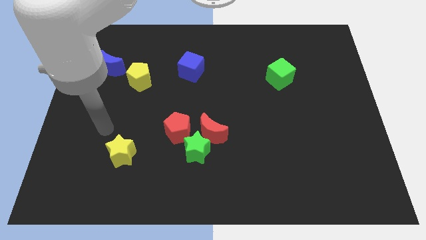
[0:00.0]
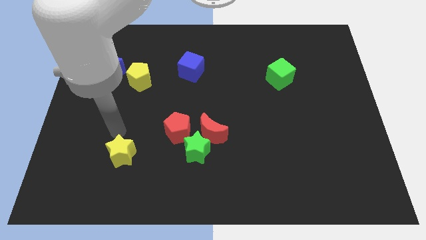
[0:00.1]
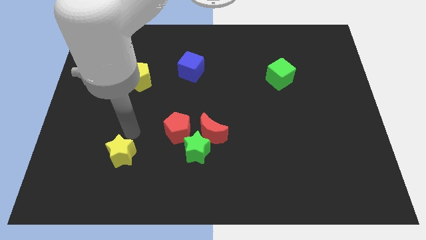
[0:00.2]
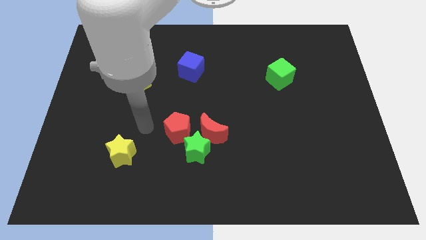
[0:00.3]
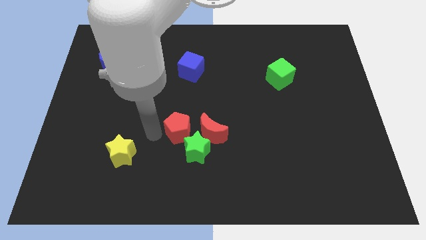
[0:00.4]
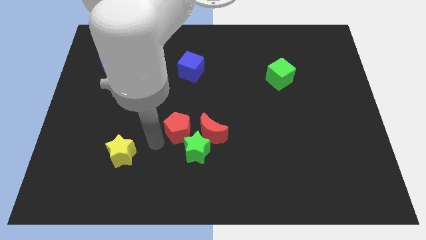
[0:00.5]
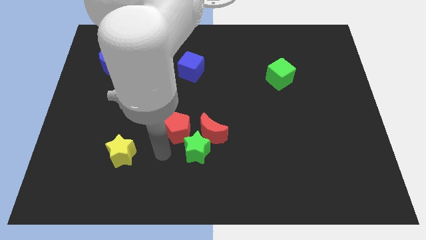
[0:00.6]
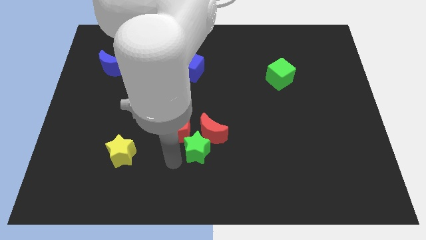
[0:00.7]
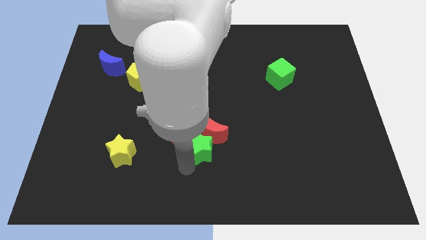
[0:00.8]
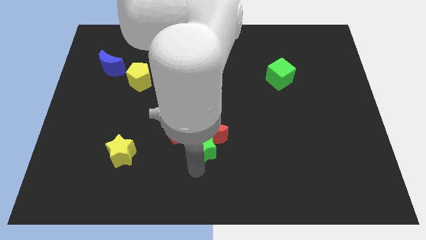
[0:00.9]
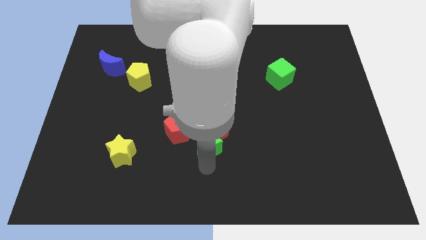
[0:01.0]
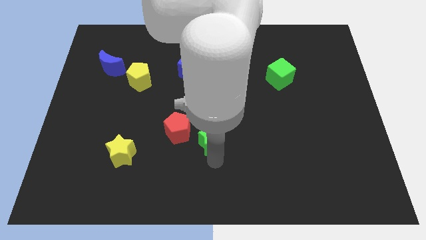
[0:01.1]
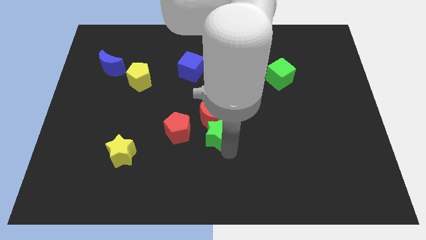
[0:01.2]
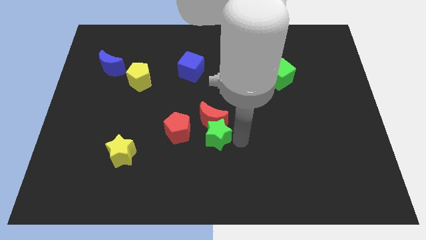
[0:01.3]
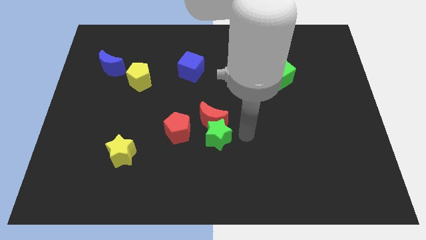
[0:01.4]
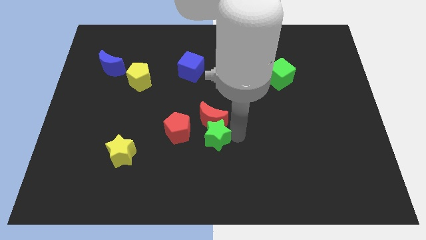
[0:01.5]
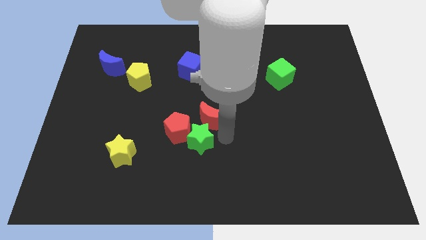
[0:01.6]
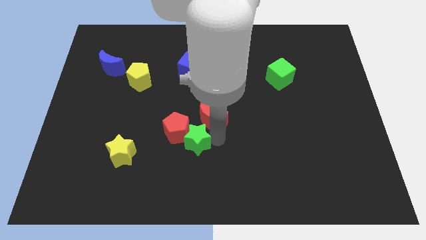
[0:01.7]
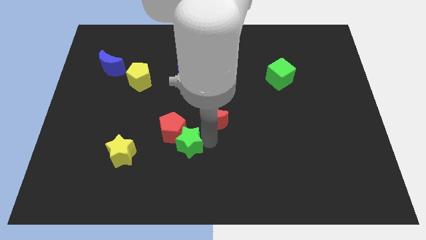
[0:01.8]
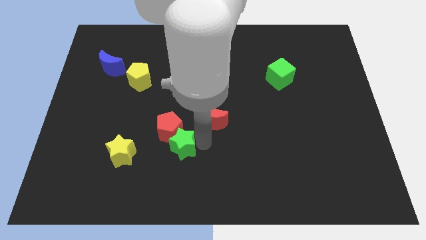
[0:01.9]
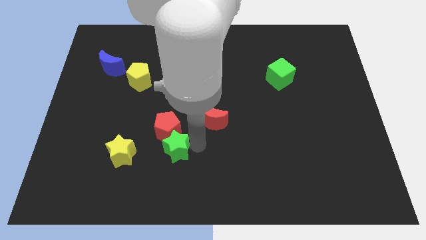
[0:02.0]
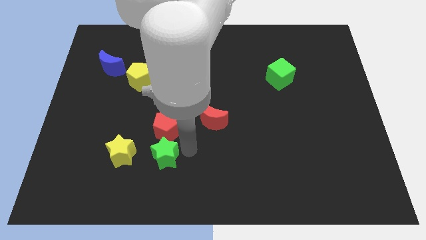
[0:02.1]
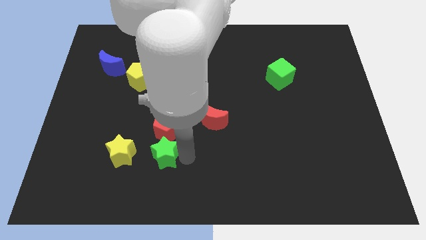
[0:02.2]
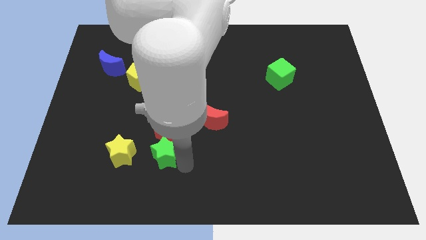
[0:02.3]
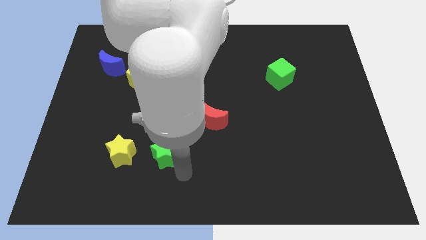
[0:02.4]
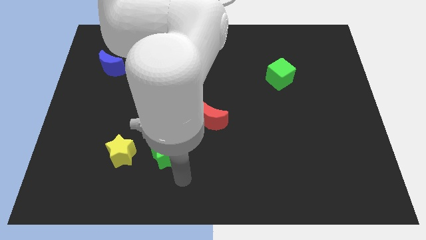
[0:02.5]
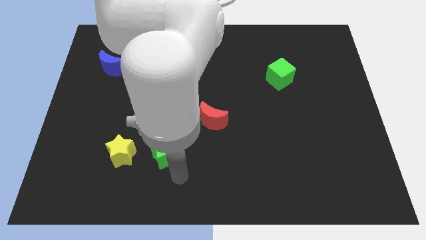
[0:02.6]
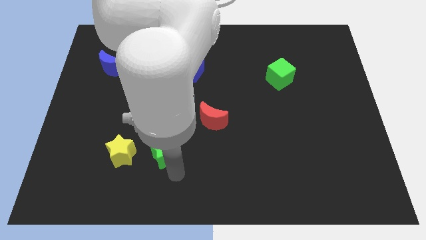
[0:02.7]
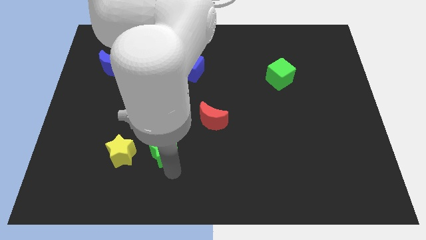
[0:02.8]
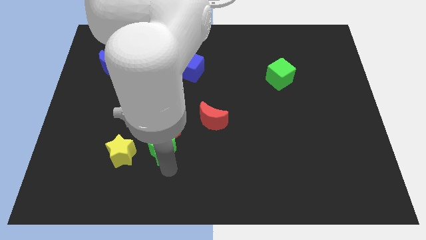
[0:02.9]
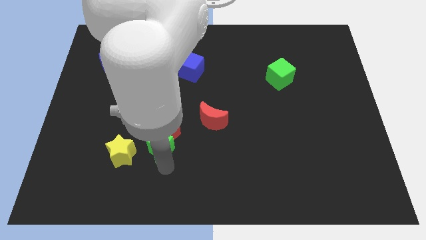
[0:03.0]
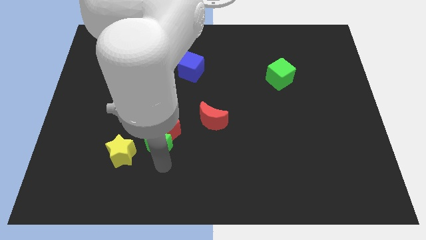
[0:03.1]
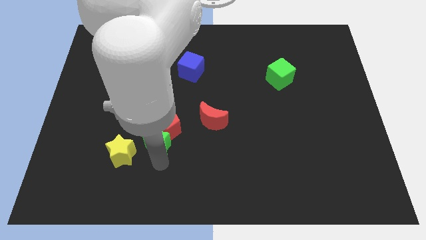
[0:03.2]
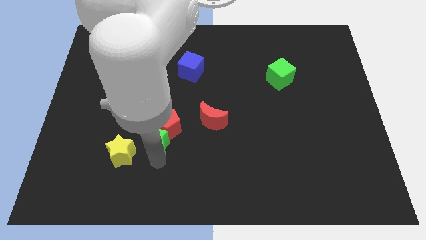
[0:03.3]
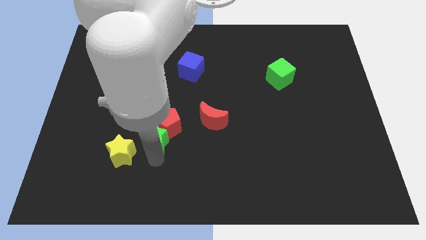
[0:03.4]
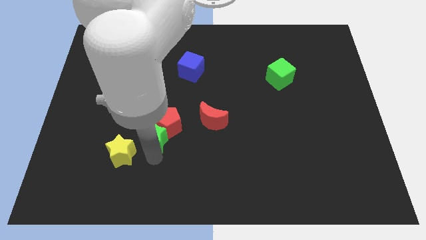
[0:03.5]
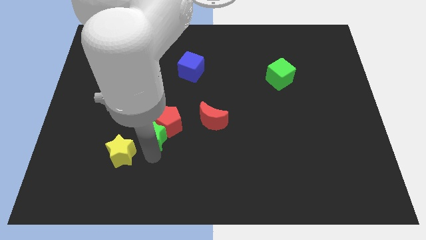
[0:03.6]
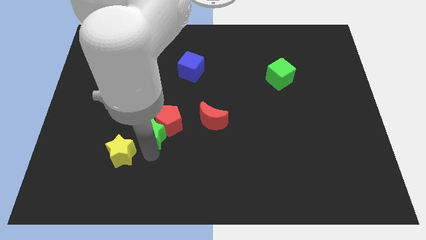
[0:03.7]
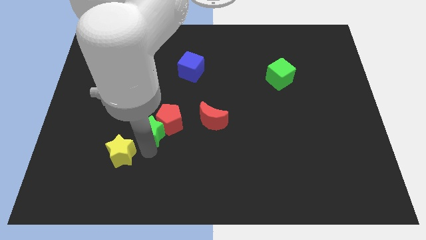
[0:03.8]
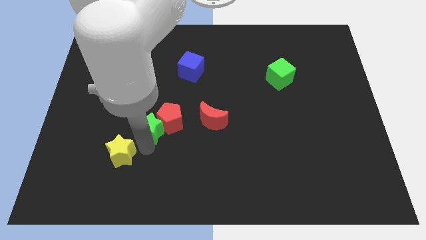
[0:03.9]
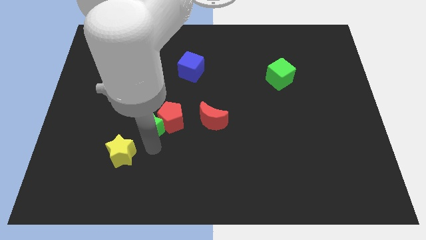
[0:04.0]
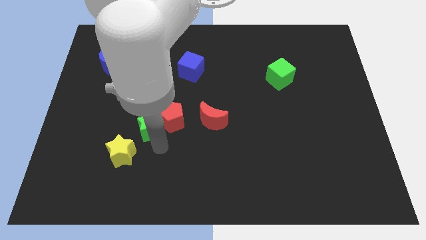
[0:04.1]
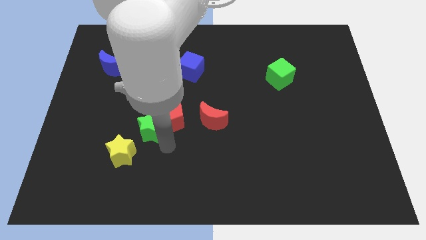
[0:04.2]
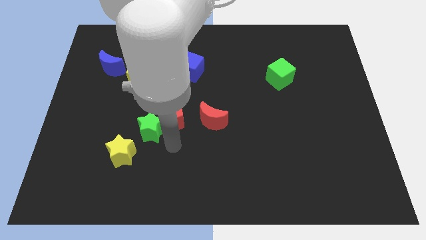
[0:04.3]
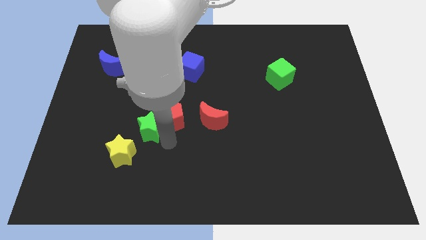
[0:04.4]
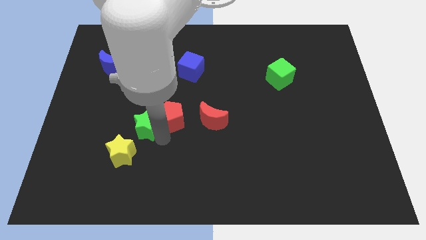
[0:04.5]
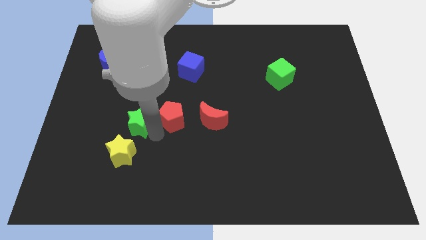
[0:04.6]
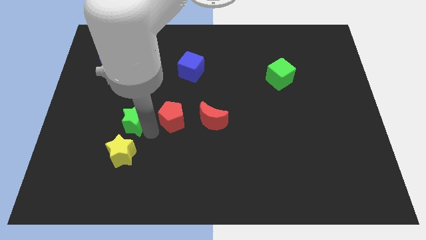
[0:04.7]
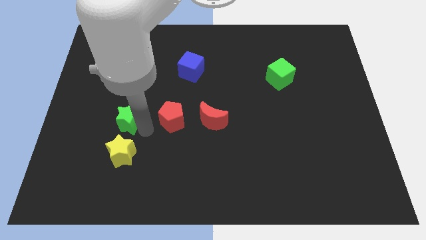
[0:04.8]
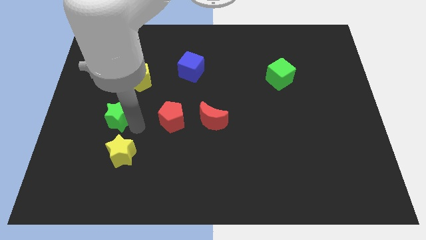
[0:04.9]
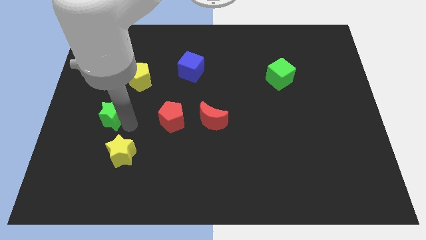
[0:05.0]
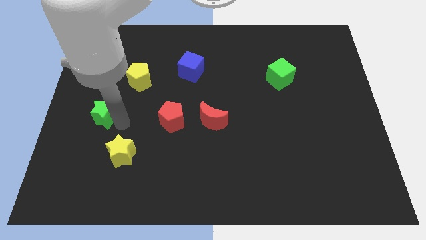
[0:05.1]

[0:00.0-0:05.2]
move the green star to the bottom of the blue moon

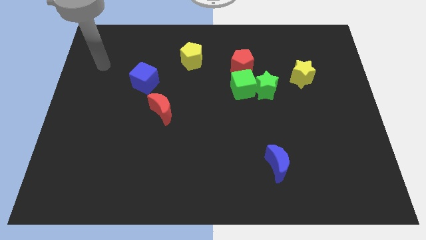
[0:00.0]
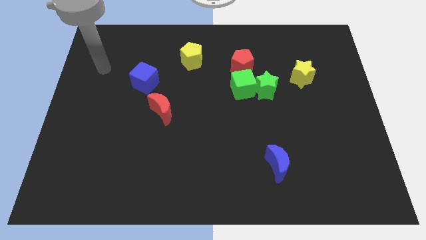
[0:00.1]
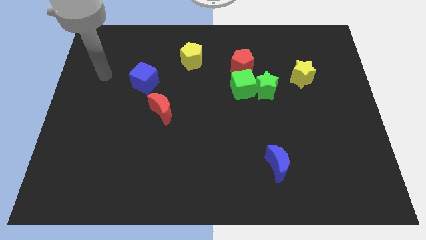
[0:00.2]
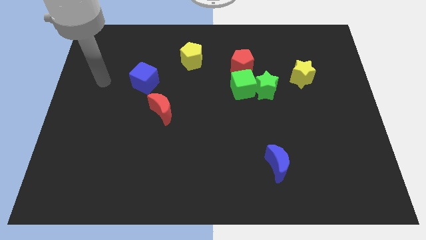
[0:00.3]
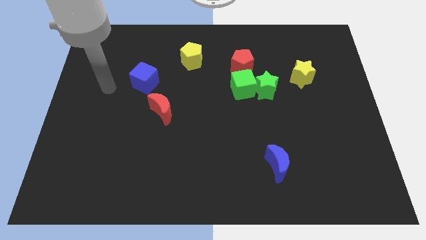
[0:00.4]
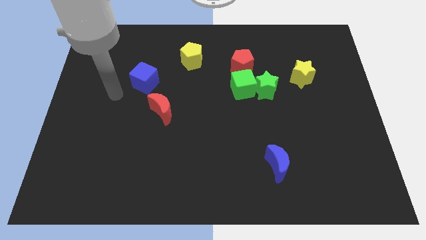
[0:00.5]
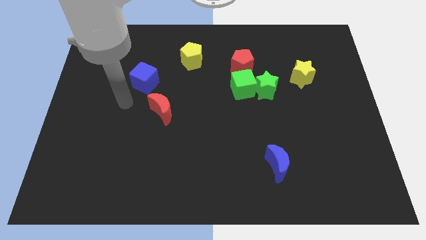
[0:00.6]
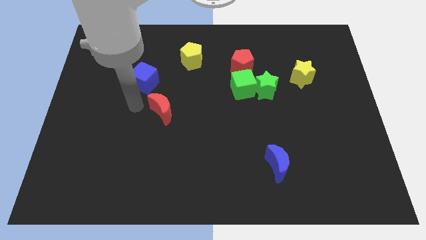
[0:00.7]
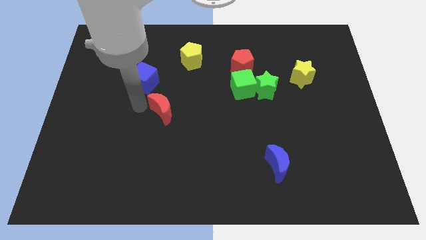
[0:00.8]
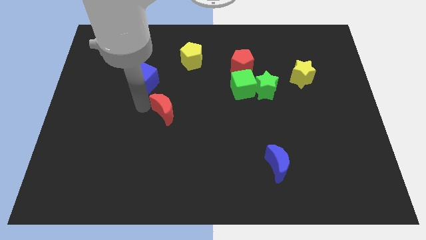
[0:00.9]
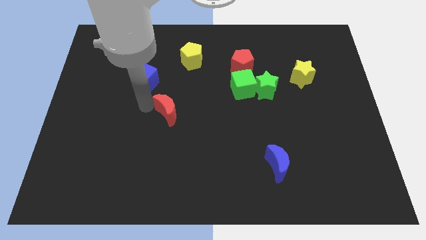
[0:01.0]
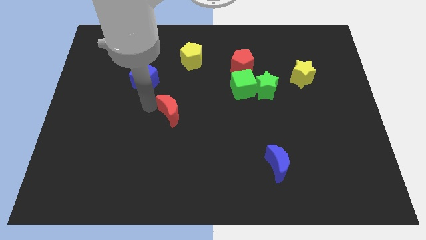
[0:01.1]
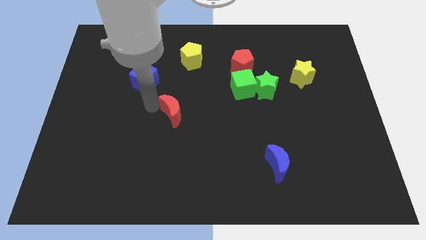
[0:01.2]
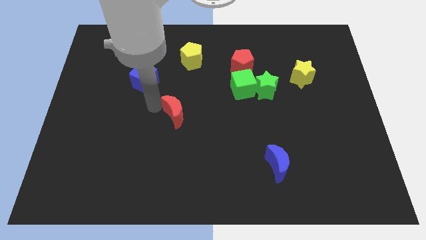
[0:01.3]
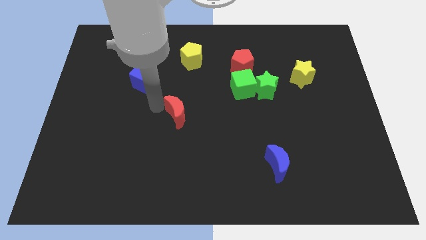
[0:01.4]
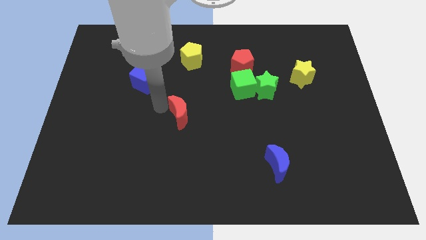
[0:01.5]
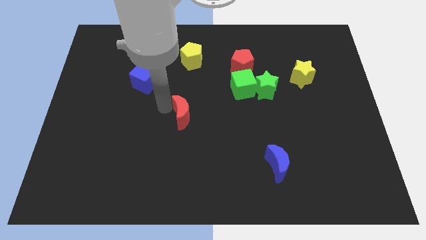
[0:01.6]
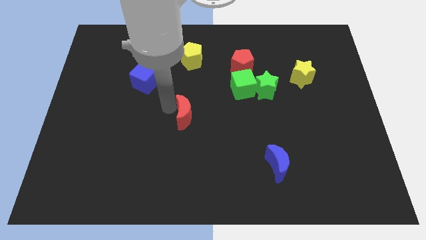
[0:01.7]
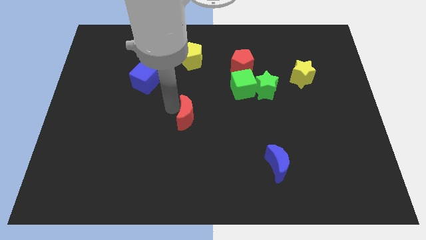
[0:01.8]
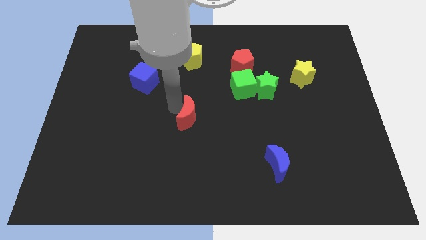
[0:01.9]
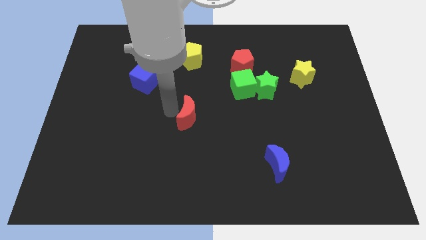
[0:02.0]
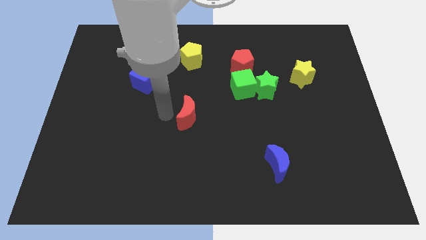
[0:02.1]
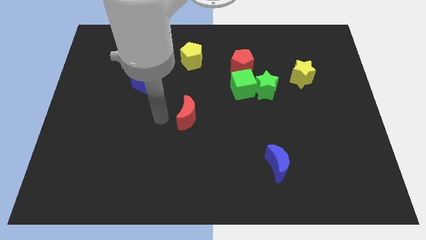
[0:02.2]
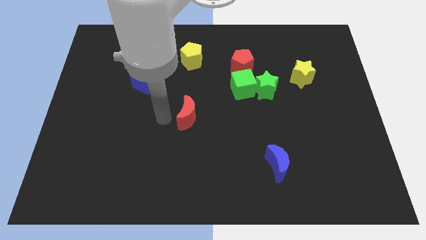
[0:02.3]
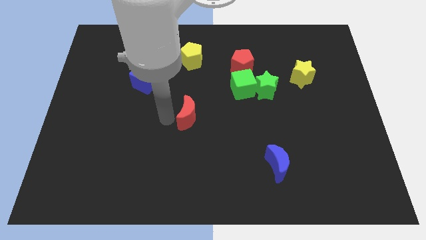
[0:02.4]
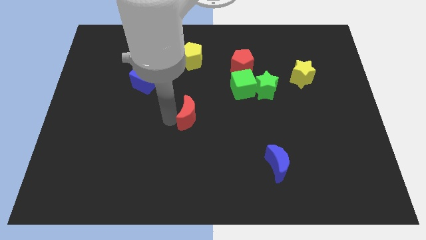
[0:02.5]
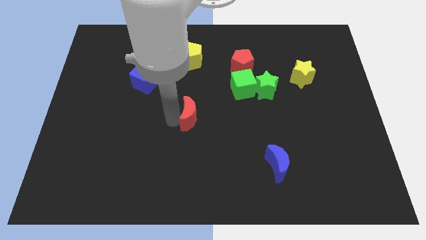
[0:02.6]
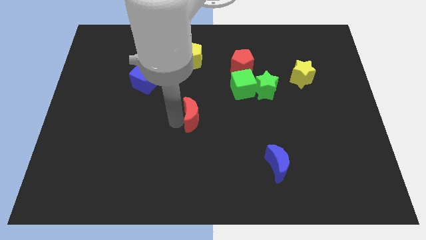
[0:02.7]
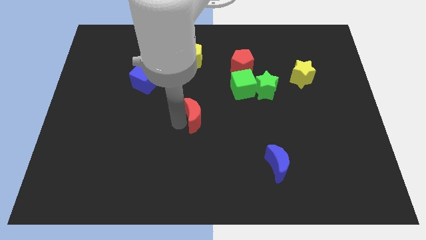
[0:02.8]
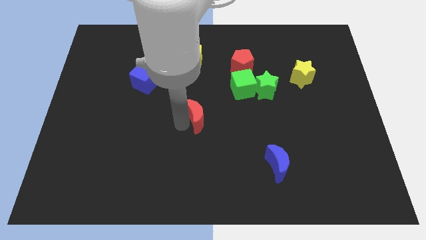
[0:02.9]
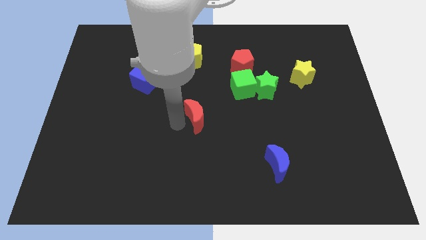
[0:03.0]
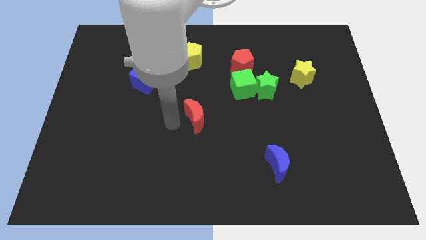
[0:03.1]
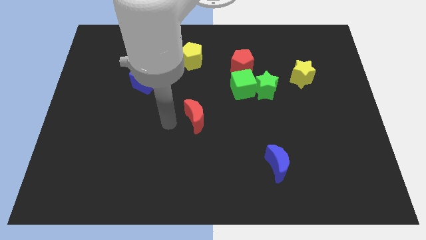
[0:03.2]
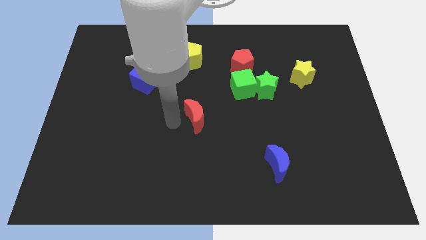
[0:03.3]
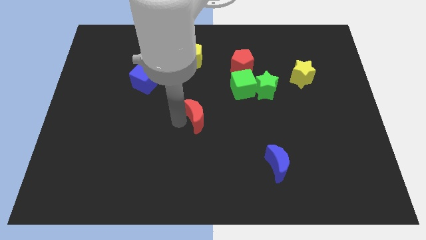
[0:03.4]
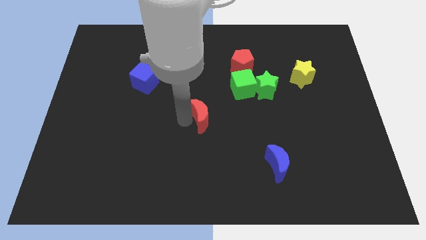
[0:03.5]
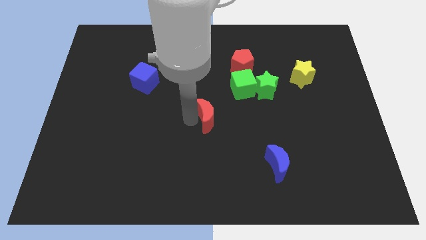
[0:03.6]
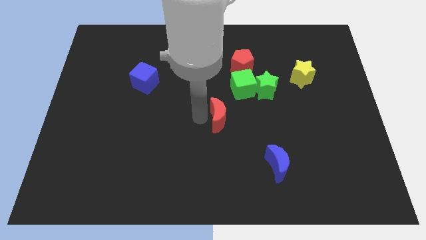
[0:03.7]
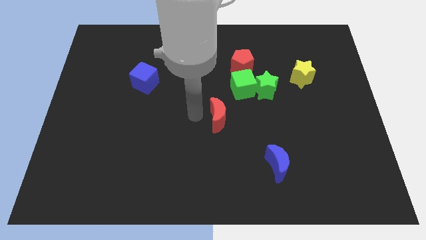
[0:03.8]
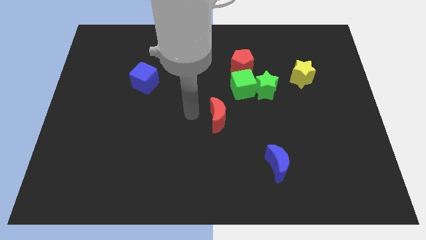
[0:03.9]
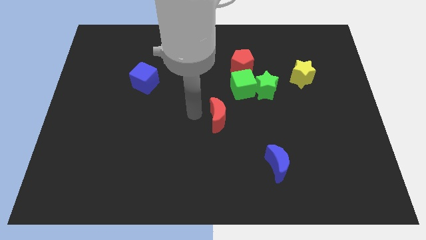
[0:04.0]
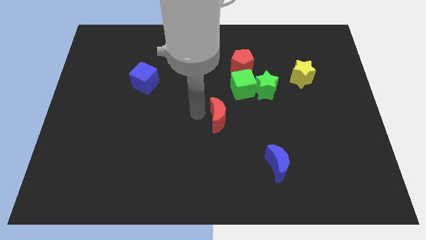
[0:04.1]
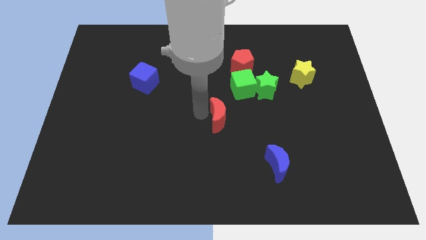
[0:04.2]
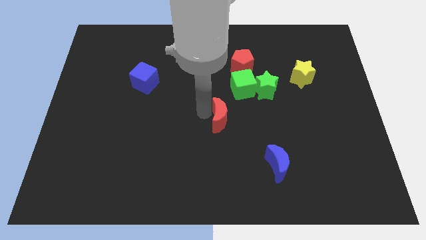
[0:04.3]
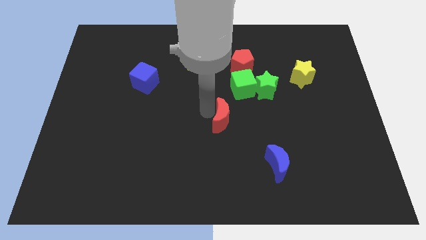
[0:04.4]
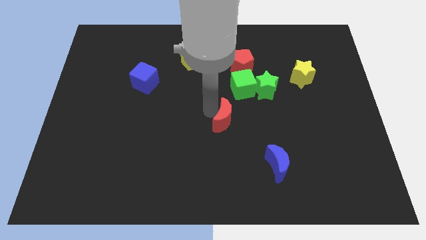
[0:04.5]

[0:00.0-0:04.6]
move the red moon to the bottom of the green cube
